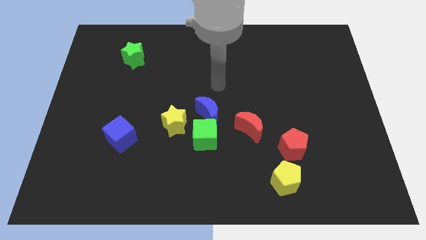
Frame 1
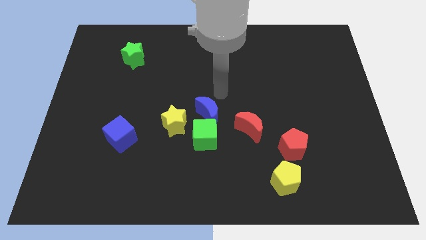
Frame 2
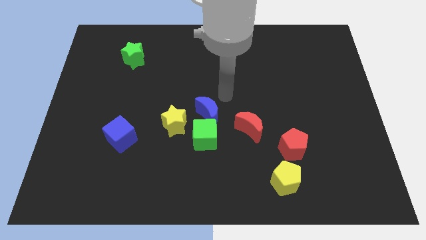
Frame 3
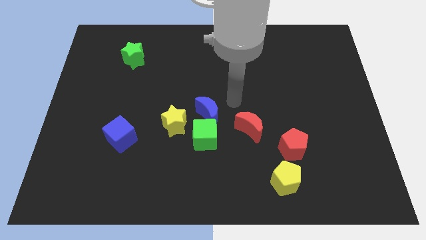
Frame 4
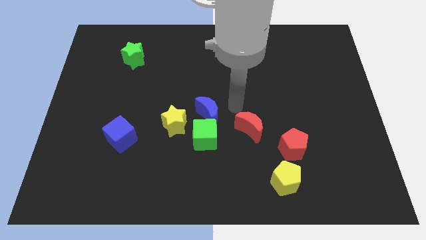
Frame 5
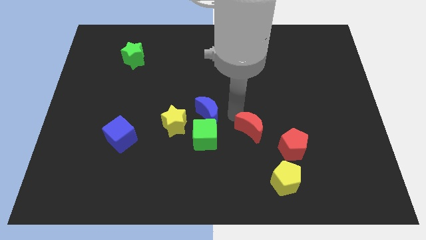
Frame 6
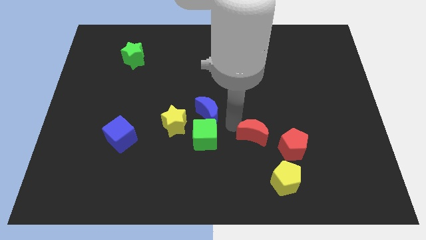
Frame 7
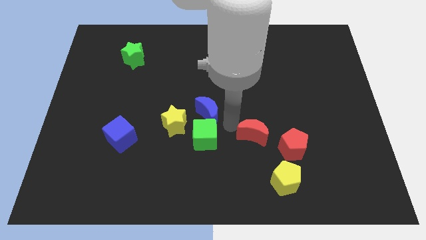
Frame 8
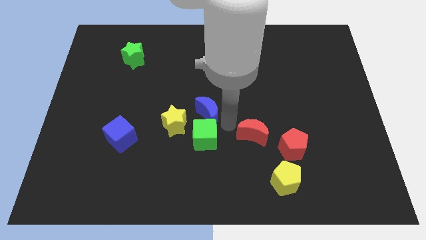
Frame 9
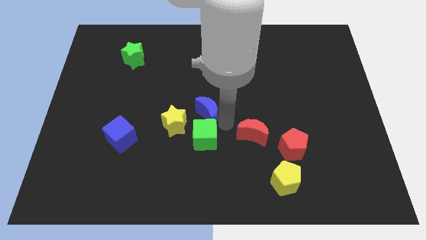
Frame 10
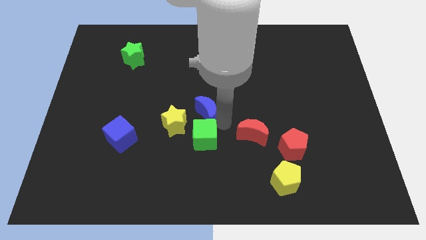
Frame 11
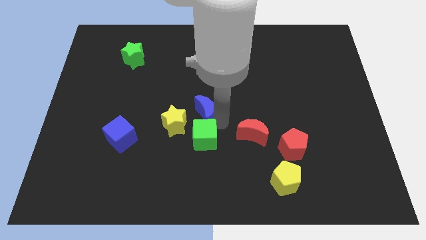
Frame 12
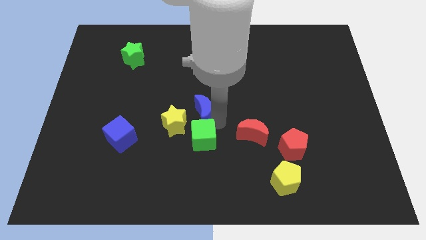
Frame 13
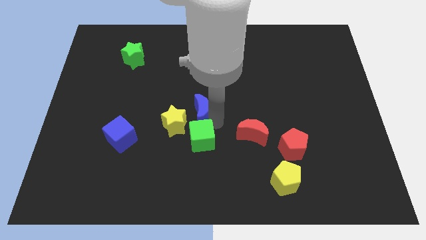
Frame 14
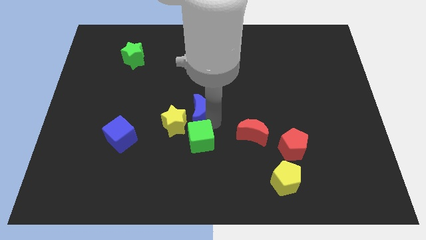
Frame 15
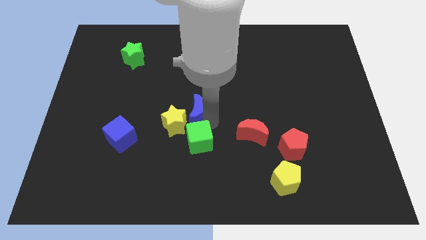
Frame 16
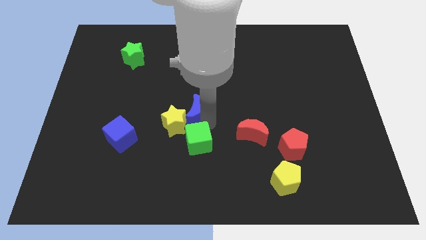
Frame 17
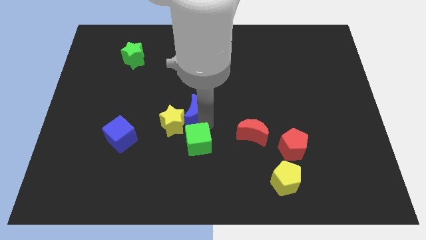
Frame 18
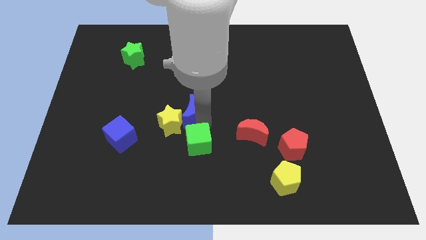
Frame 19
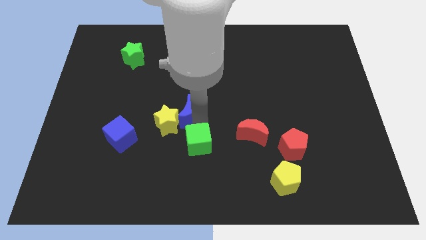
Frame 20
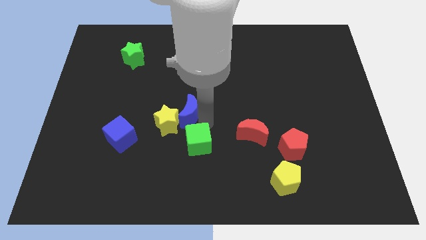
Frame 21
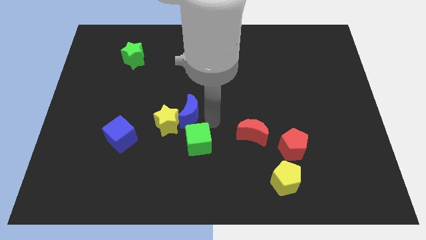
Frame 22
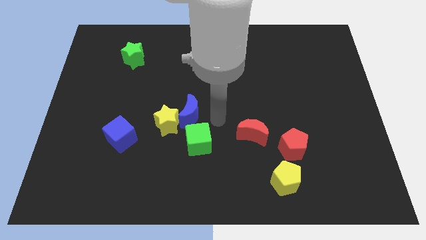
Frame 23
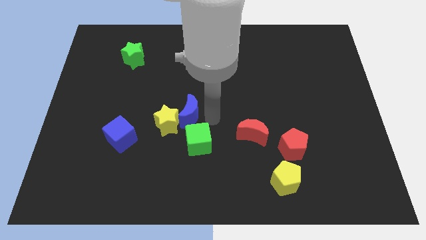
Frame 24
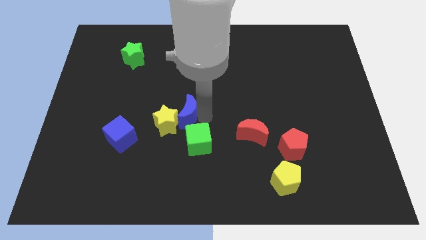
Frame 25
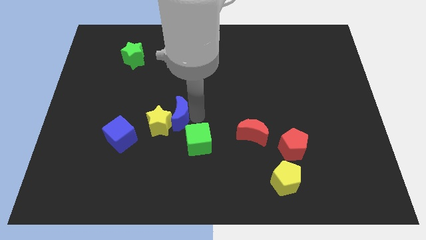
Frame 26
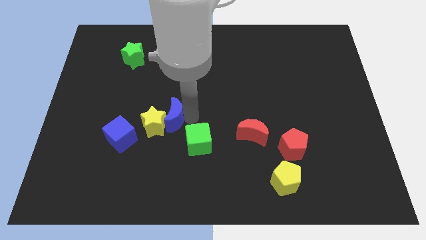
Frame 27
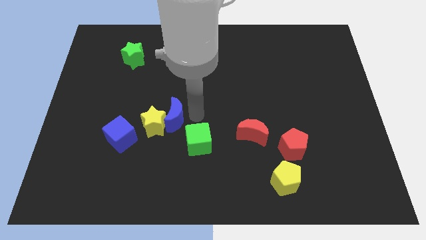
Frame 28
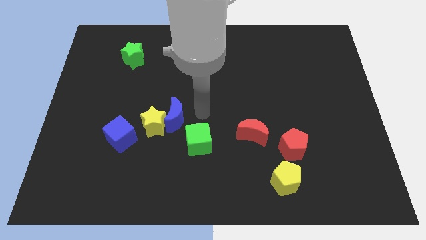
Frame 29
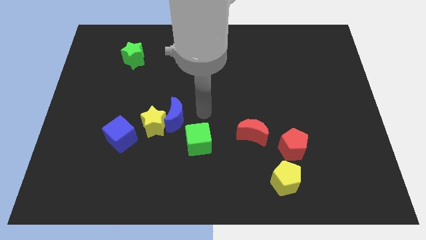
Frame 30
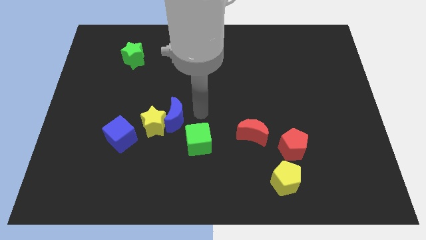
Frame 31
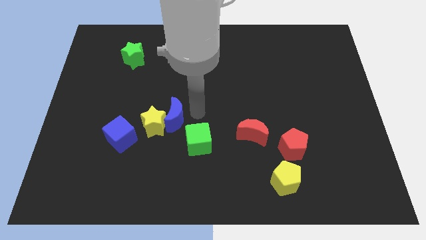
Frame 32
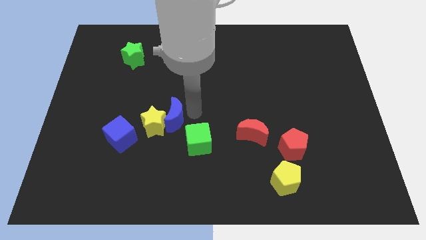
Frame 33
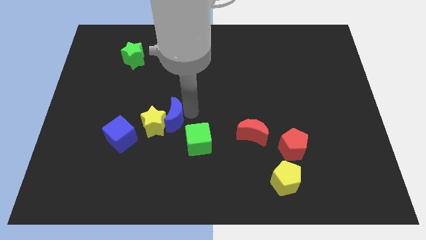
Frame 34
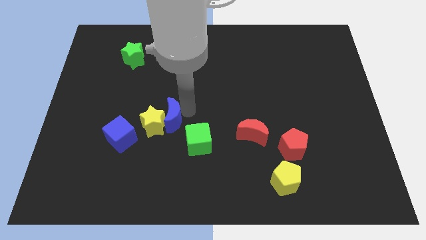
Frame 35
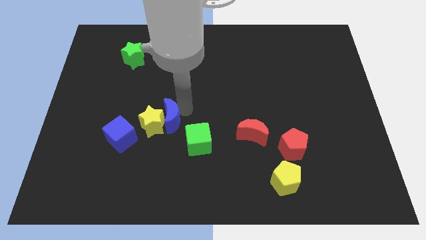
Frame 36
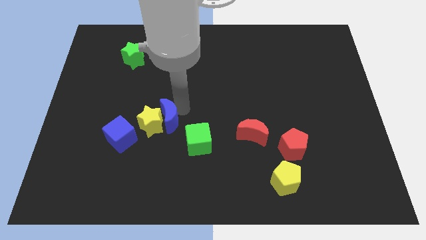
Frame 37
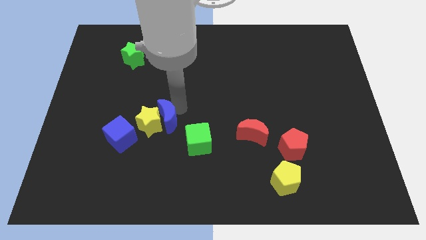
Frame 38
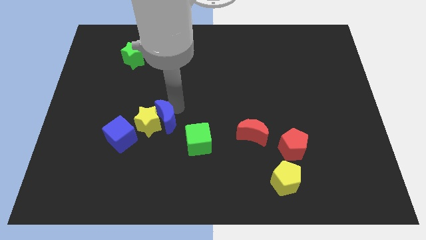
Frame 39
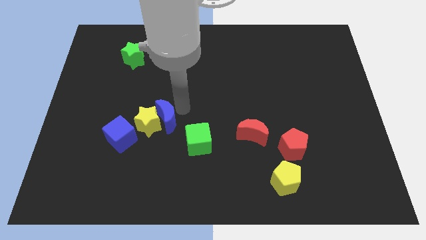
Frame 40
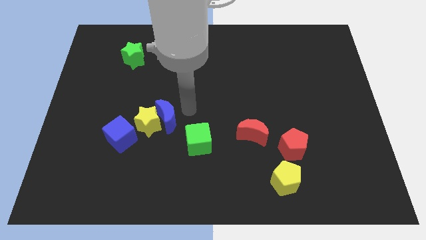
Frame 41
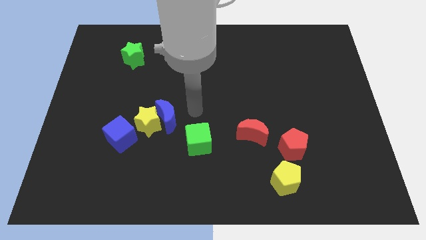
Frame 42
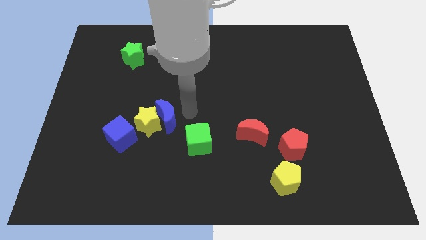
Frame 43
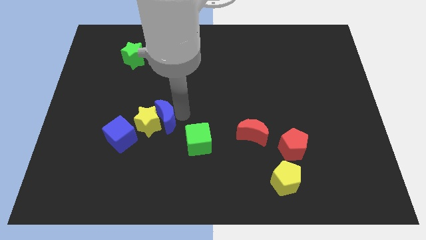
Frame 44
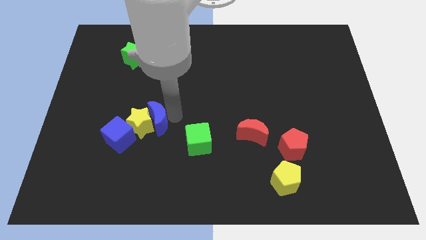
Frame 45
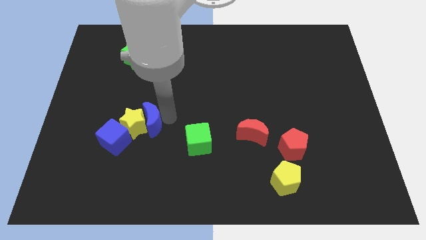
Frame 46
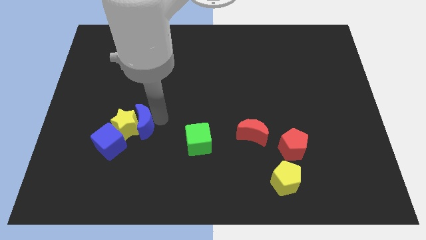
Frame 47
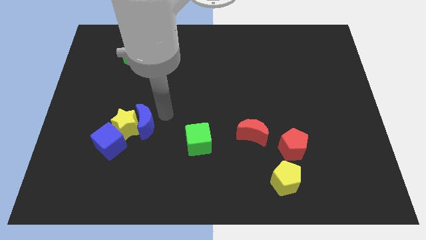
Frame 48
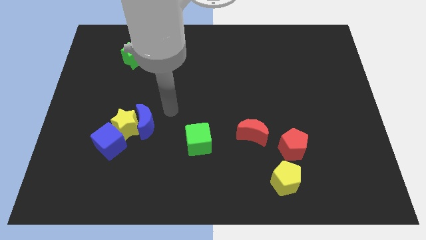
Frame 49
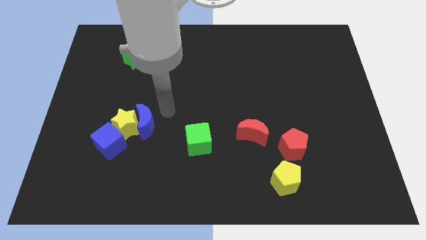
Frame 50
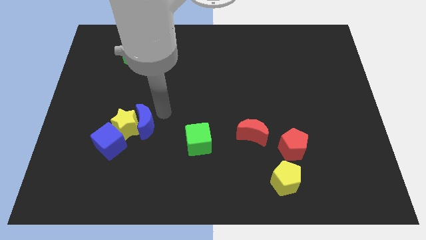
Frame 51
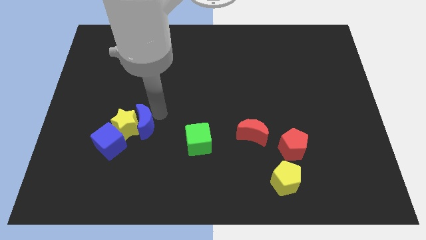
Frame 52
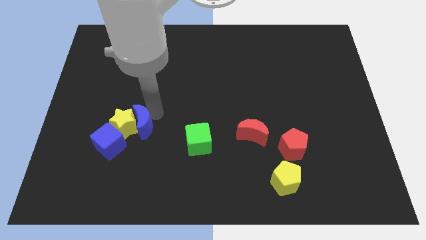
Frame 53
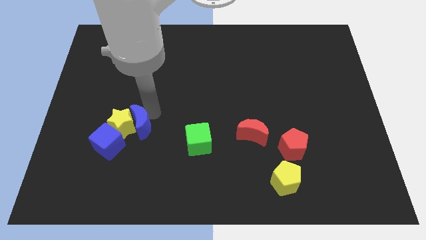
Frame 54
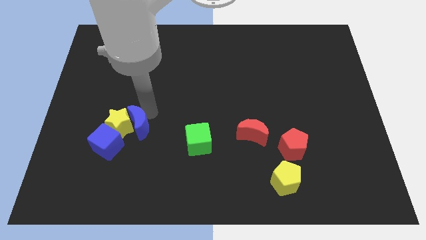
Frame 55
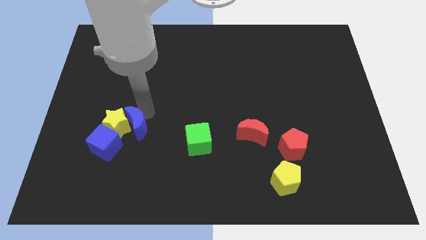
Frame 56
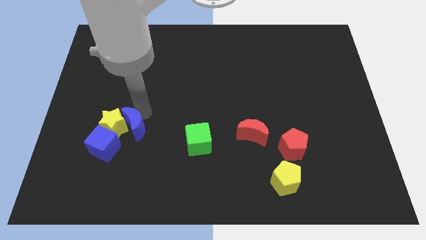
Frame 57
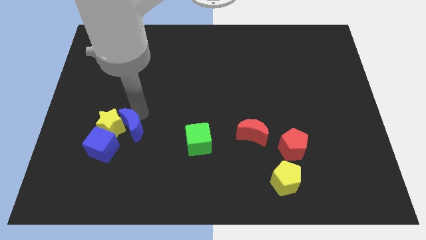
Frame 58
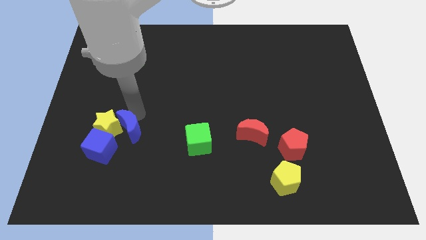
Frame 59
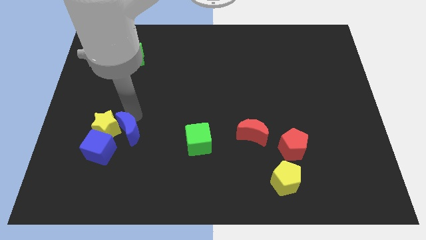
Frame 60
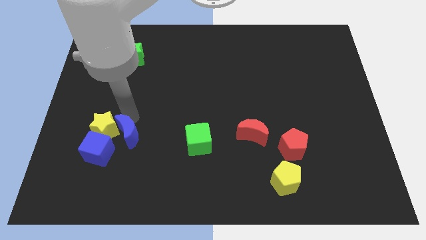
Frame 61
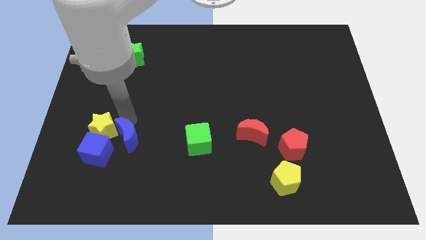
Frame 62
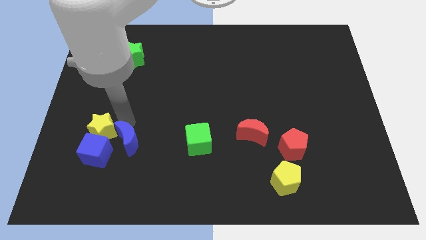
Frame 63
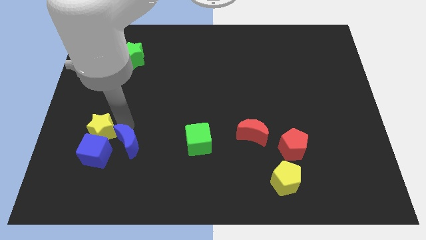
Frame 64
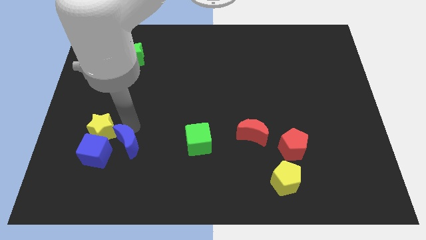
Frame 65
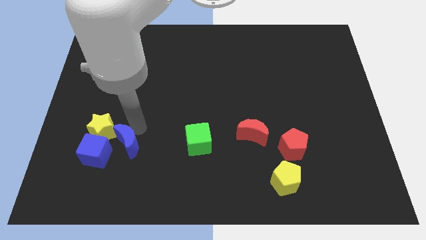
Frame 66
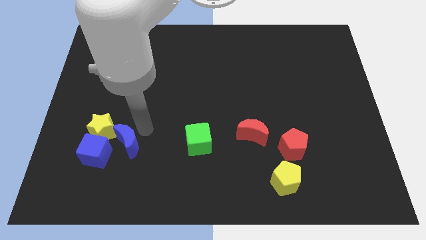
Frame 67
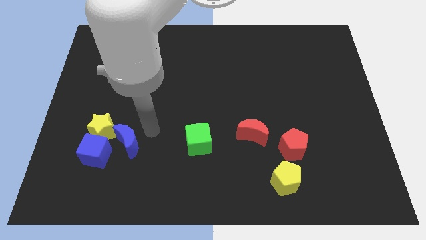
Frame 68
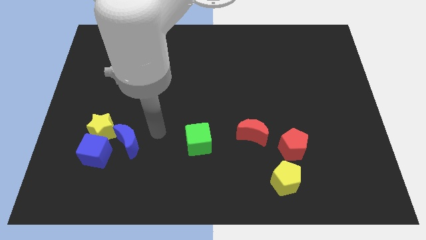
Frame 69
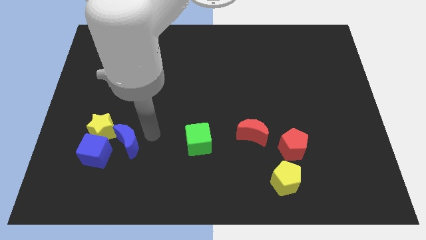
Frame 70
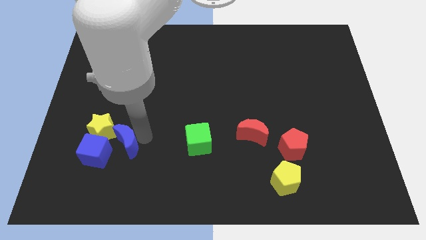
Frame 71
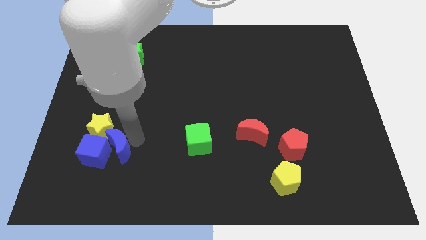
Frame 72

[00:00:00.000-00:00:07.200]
move the blue moon to the blue cube
